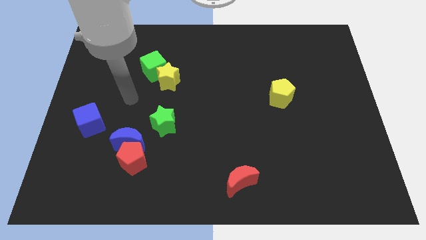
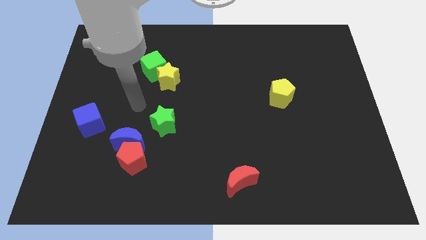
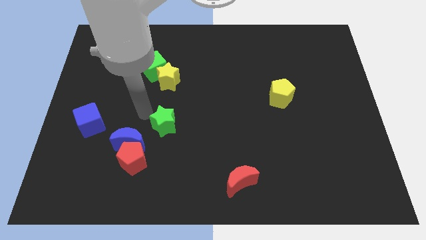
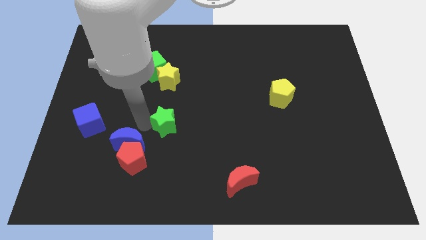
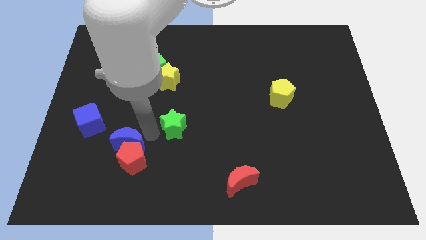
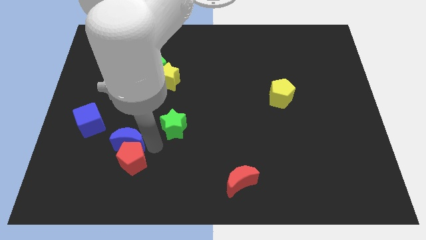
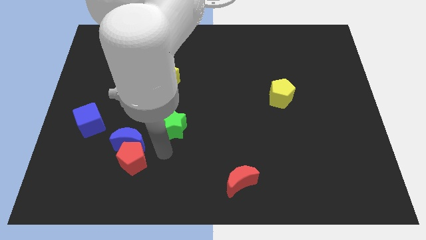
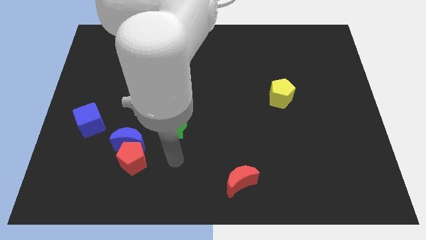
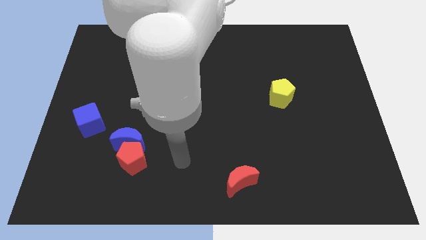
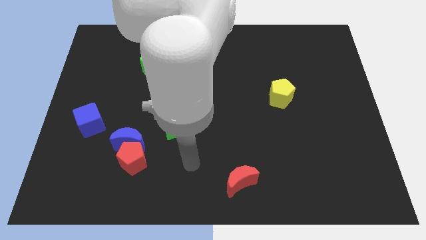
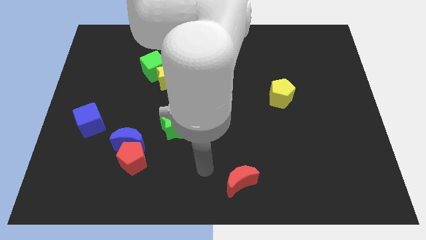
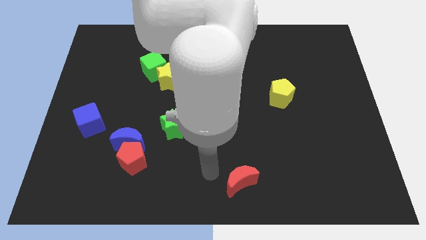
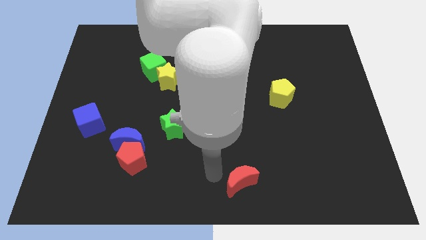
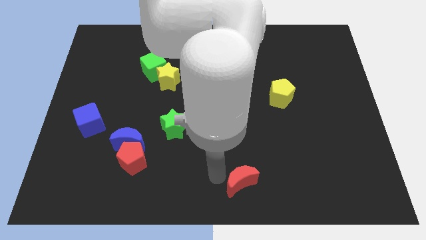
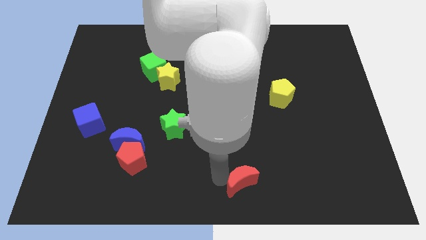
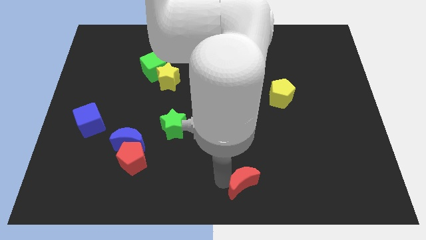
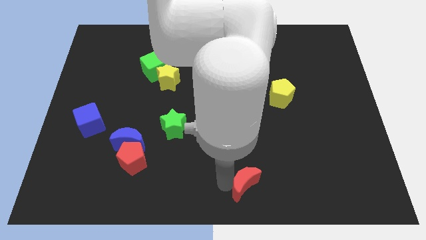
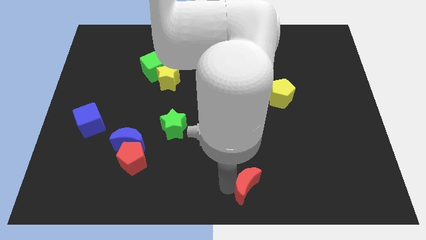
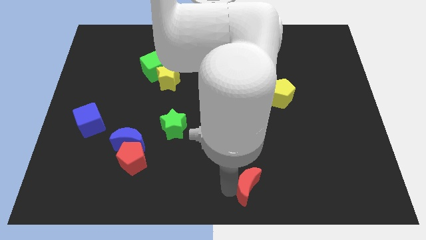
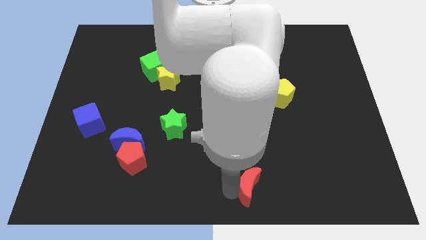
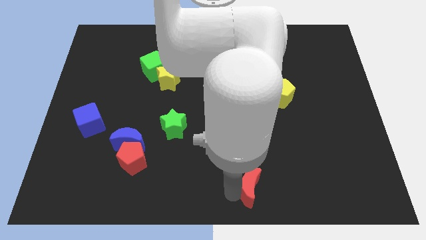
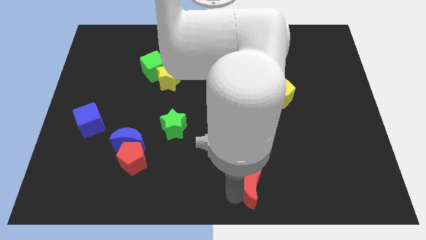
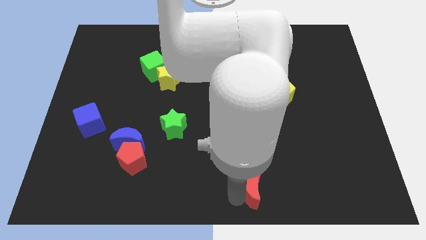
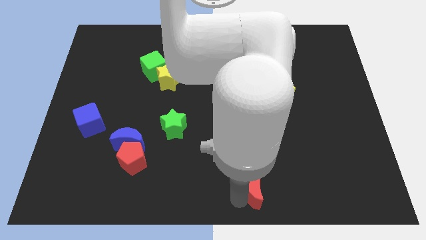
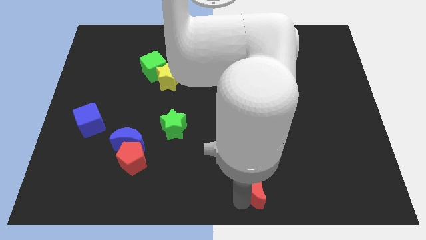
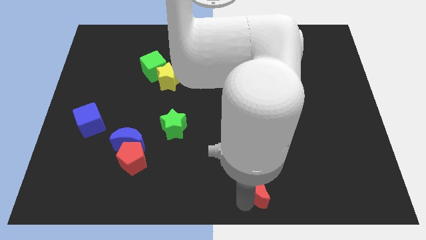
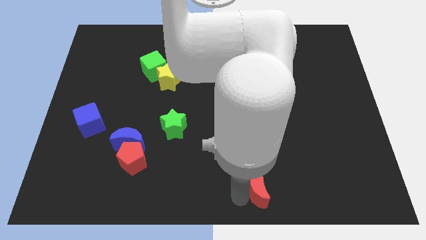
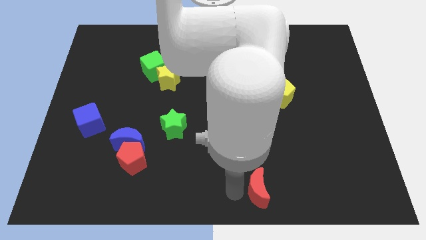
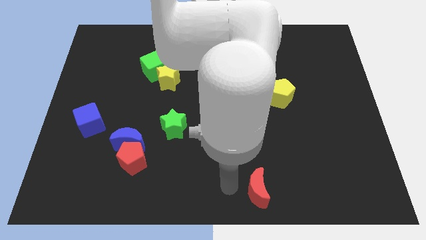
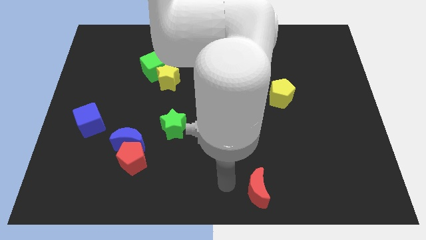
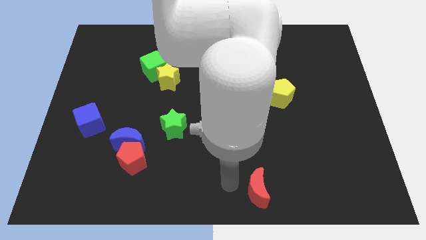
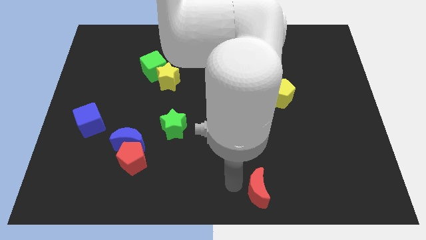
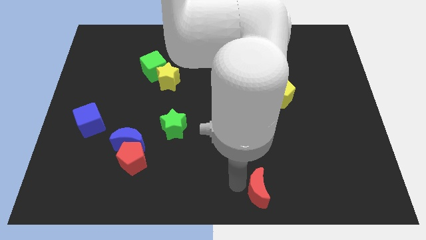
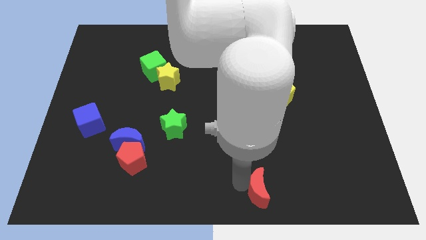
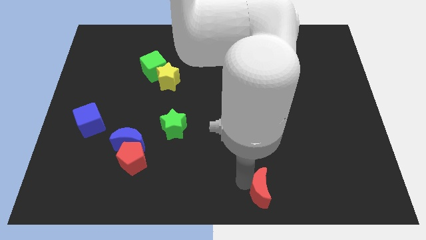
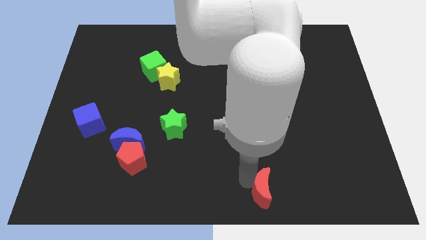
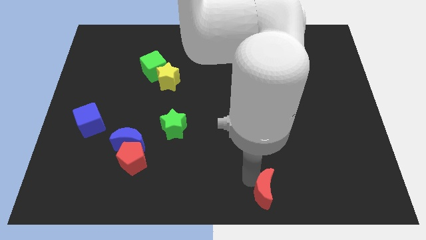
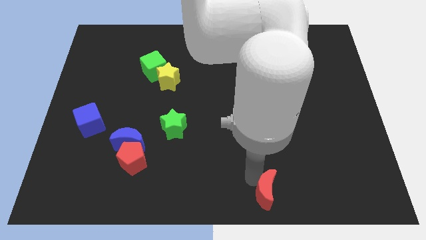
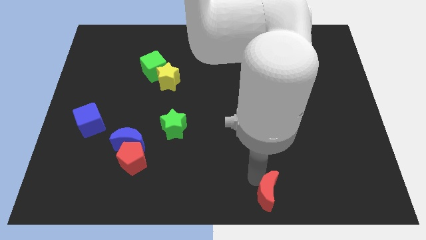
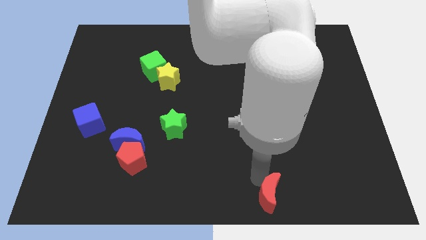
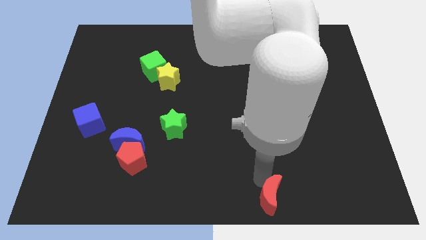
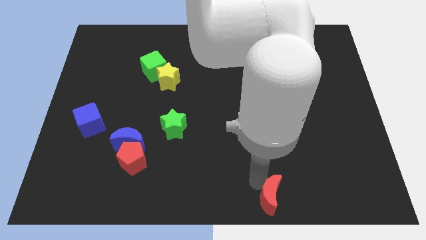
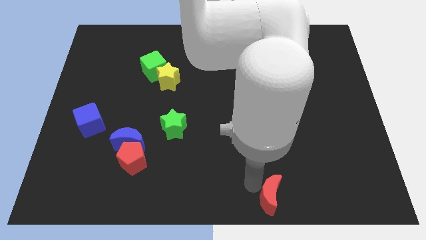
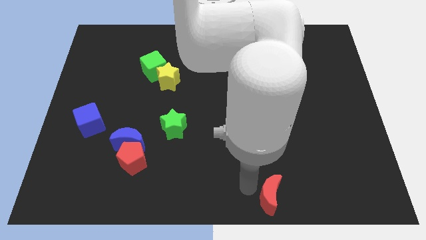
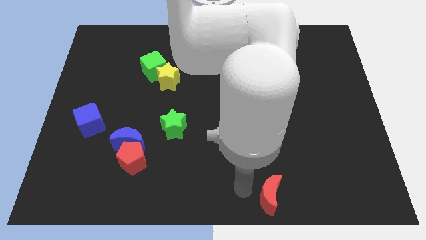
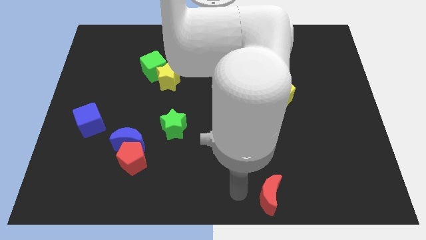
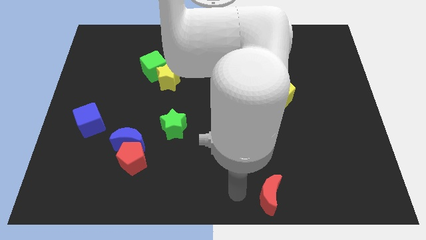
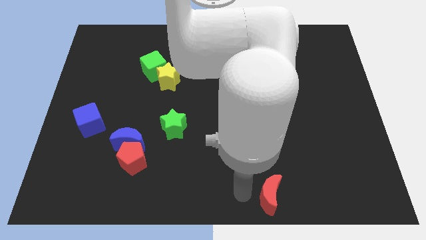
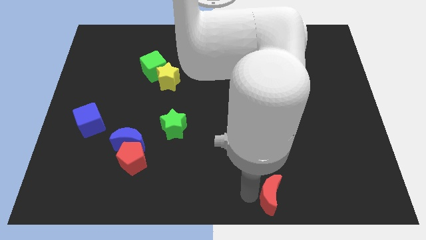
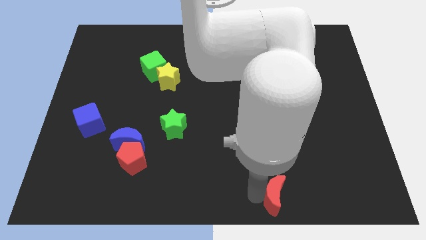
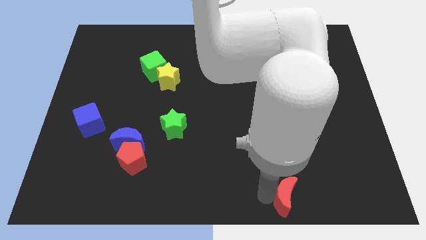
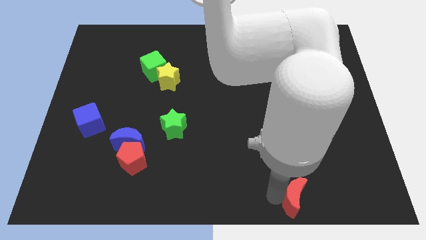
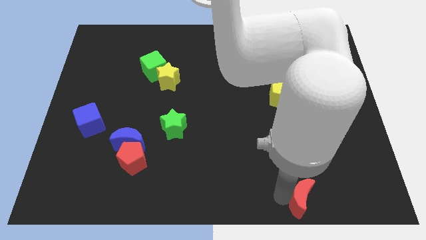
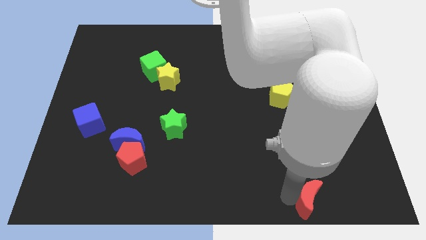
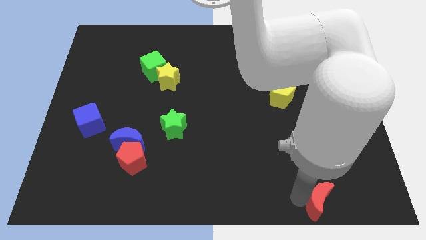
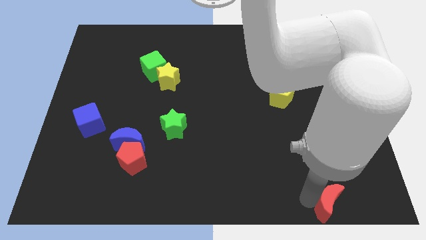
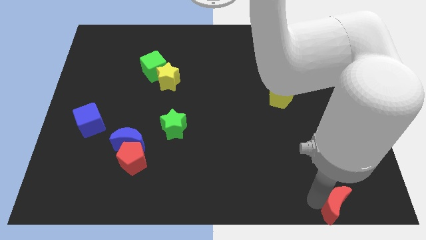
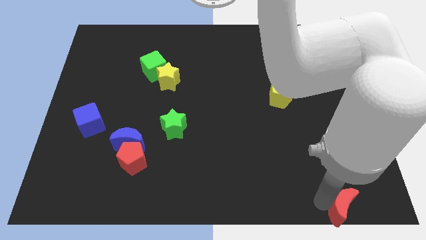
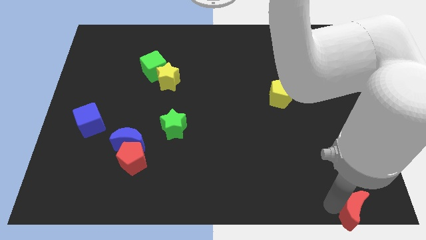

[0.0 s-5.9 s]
slide the red moon to the lower right corner

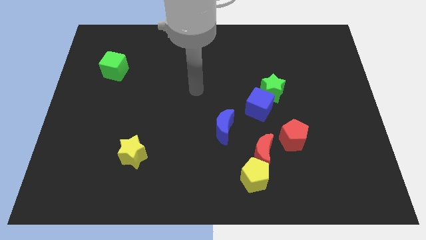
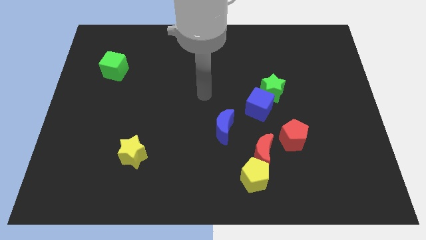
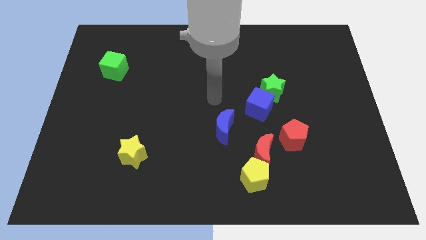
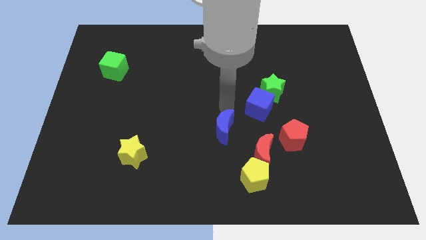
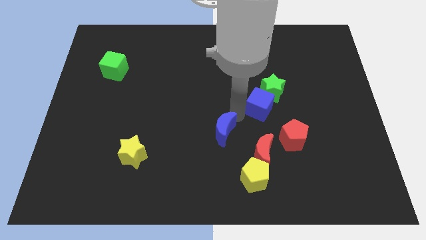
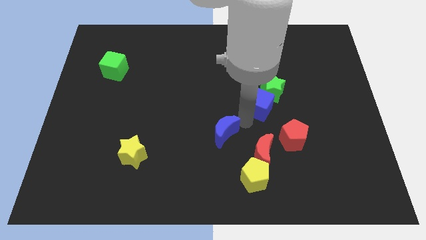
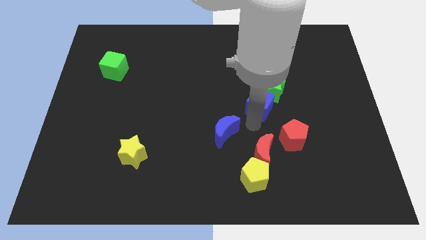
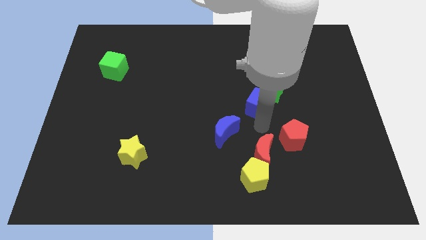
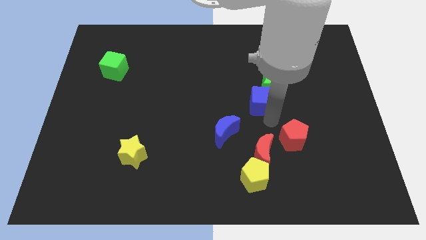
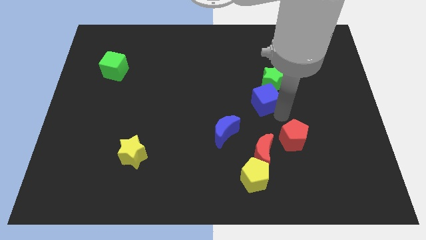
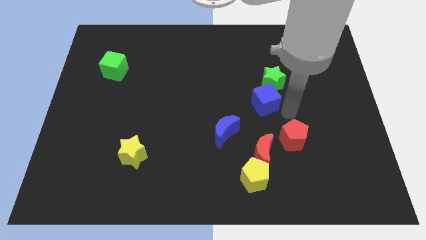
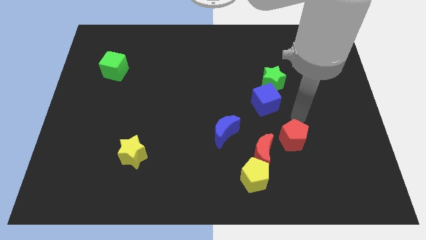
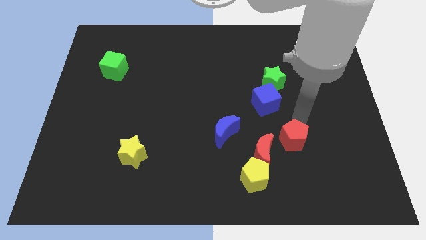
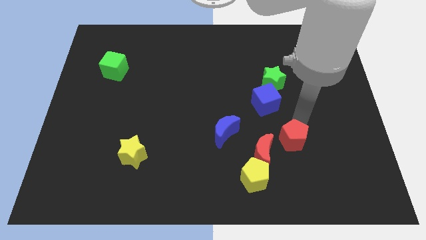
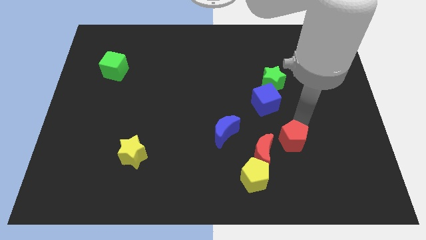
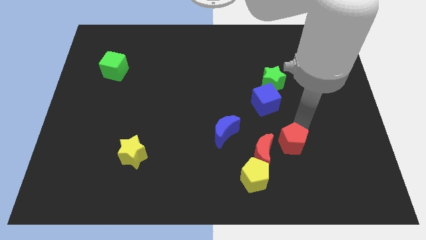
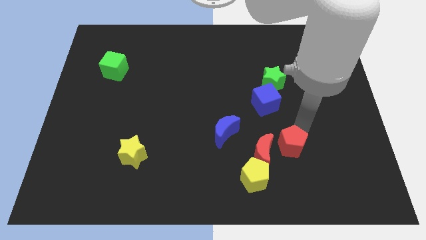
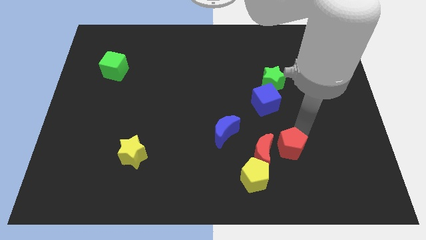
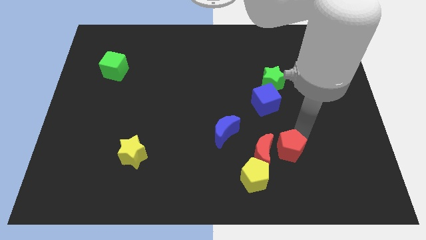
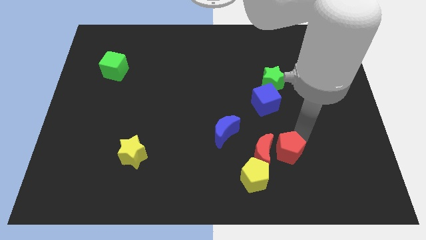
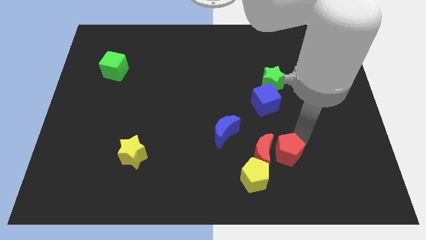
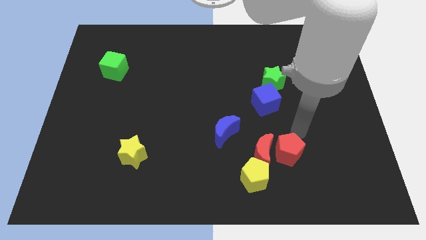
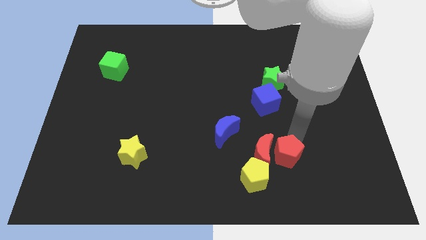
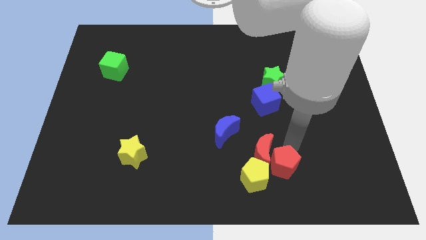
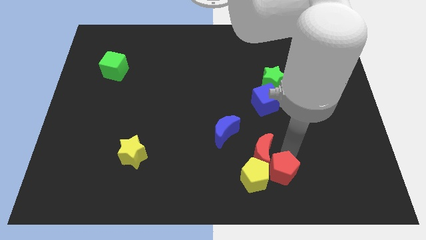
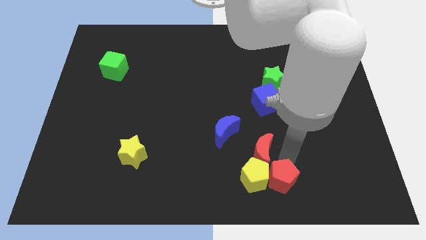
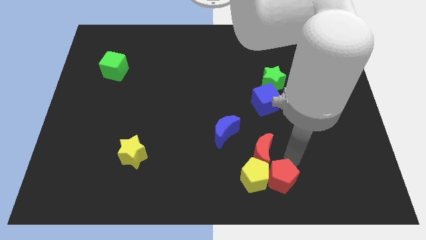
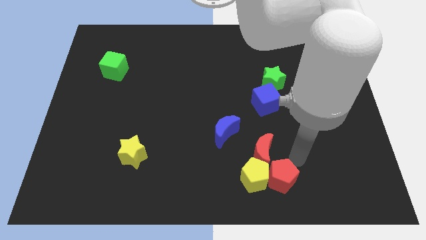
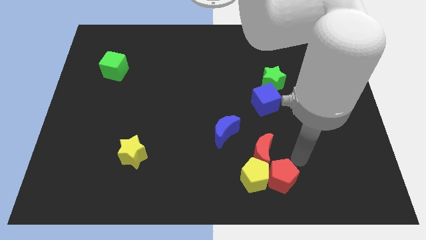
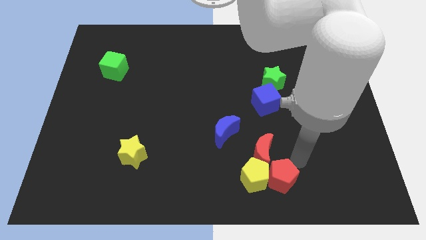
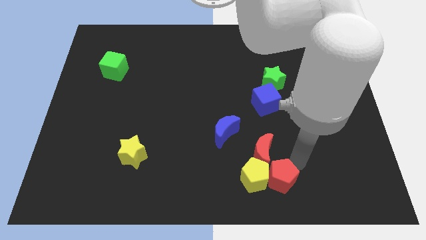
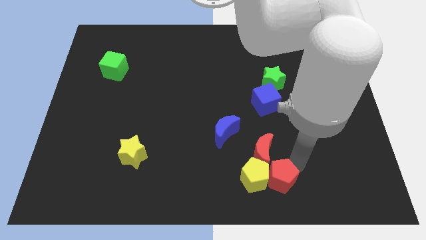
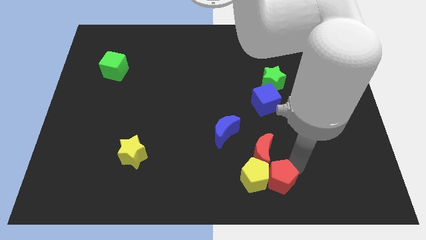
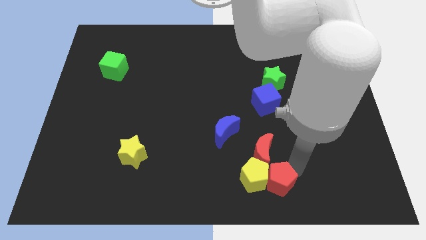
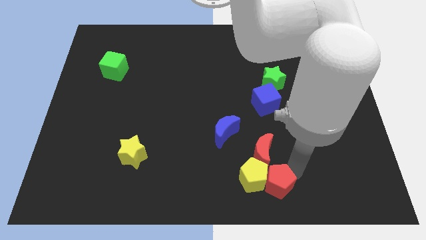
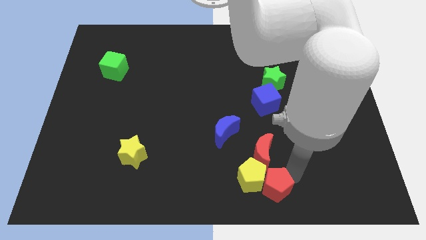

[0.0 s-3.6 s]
push the red pentagon to the bottom
